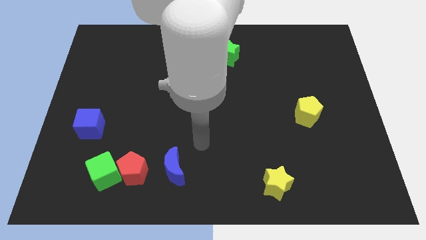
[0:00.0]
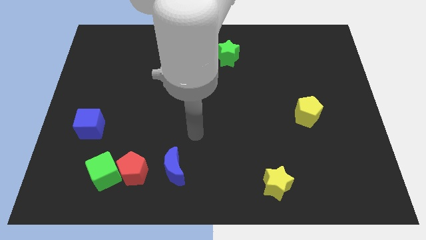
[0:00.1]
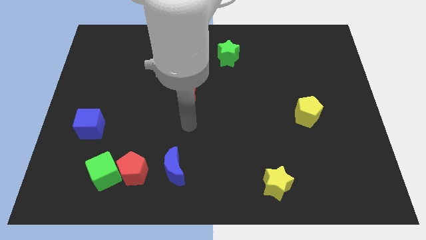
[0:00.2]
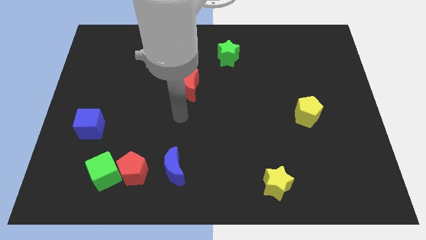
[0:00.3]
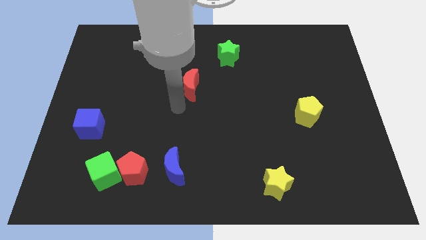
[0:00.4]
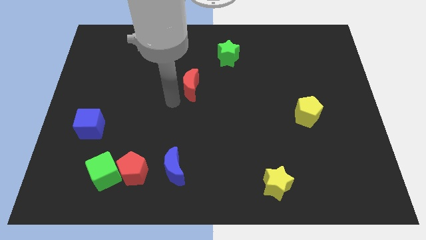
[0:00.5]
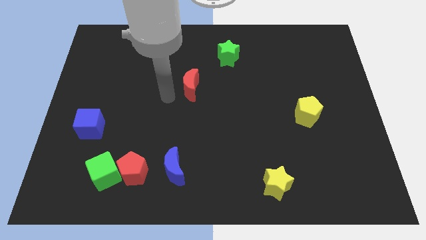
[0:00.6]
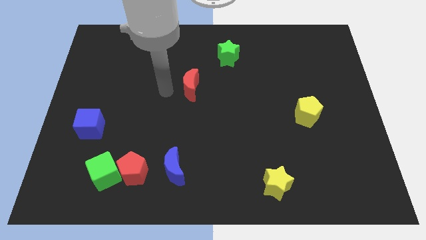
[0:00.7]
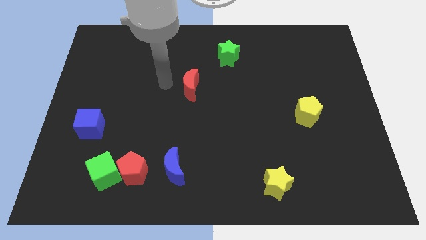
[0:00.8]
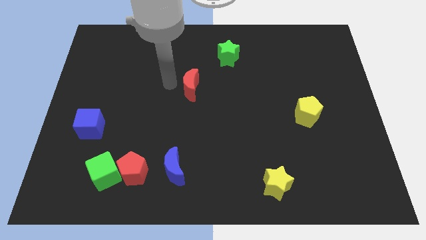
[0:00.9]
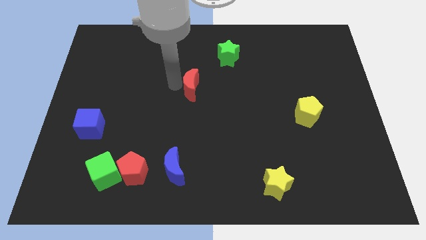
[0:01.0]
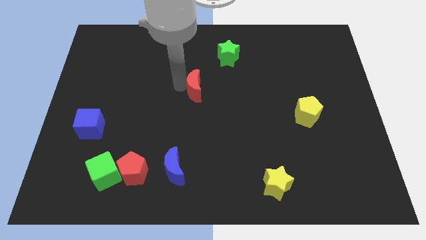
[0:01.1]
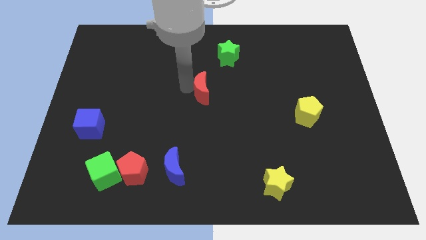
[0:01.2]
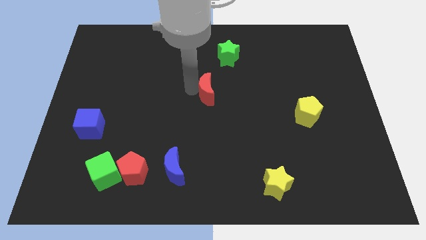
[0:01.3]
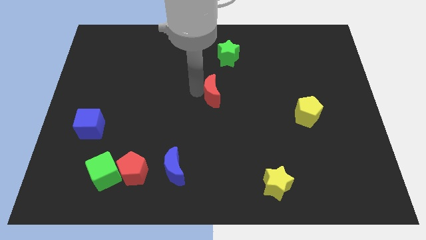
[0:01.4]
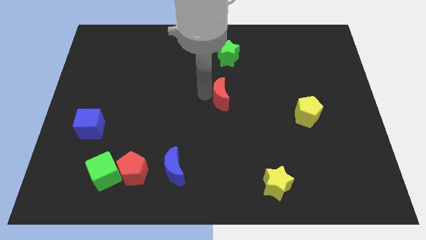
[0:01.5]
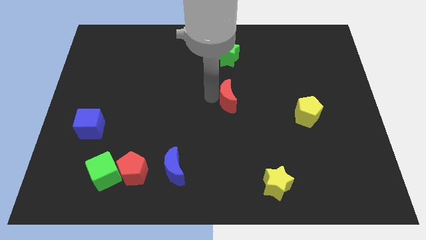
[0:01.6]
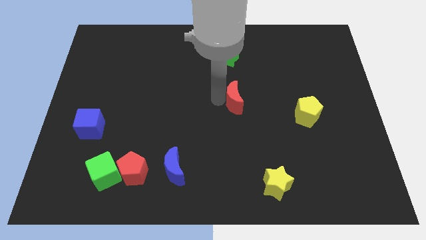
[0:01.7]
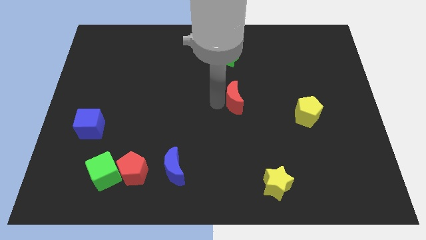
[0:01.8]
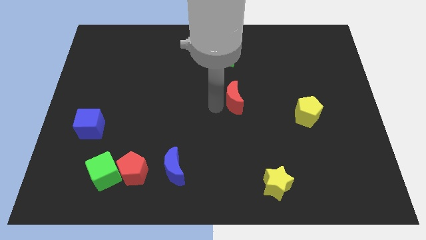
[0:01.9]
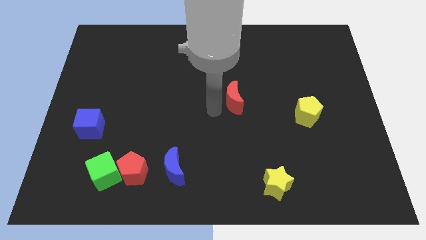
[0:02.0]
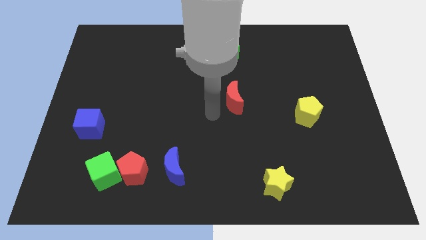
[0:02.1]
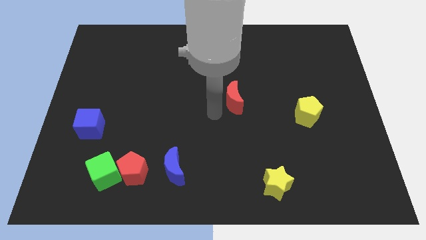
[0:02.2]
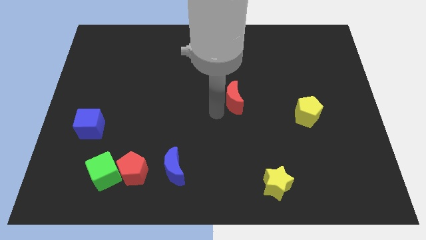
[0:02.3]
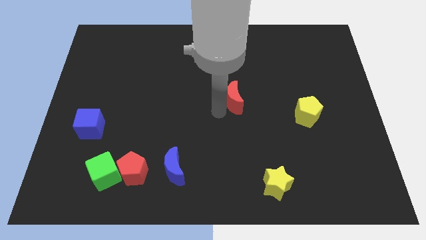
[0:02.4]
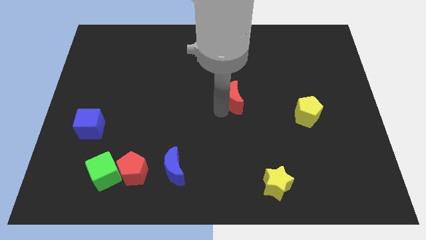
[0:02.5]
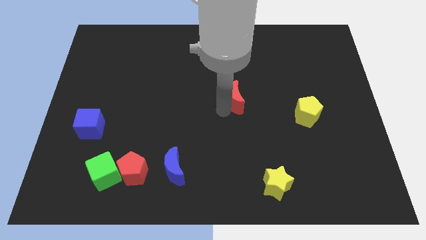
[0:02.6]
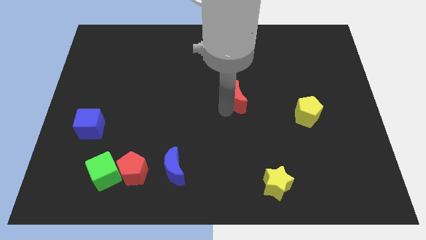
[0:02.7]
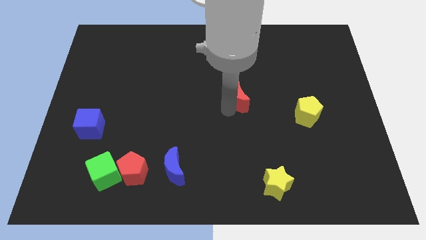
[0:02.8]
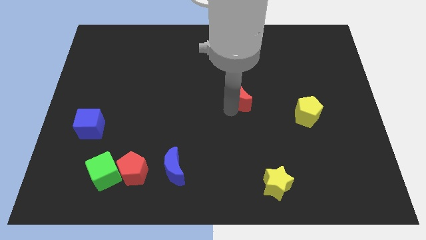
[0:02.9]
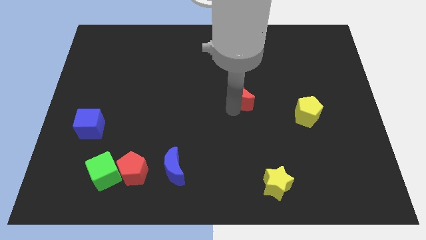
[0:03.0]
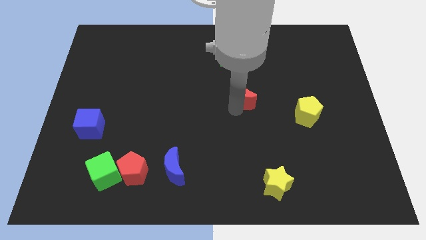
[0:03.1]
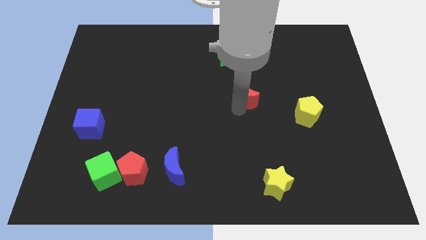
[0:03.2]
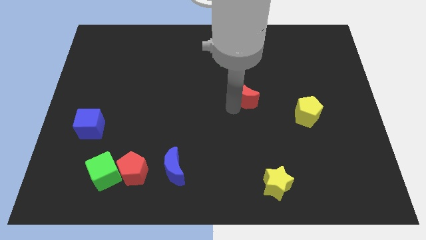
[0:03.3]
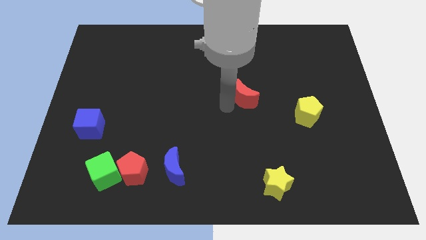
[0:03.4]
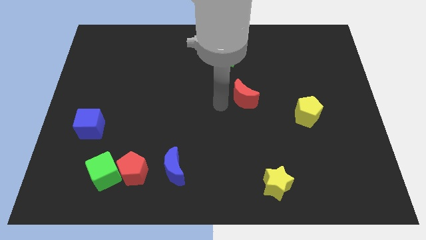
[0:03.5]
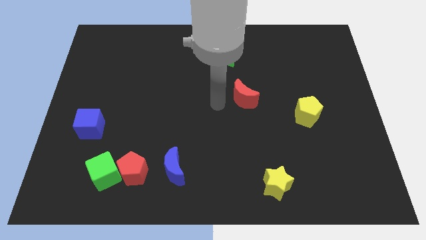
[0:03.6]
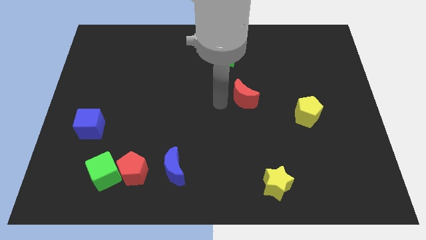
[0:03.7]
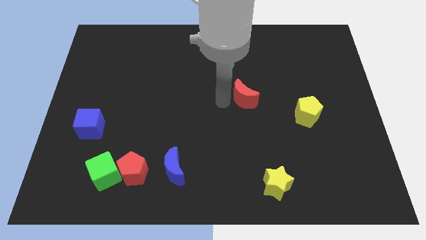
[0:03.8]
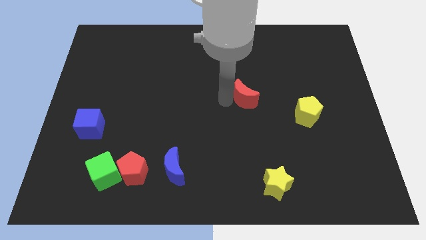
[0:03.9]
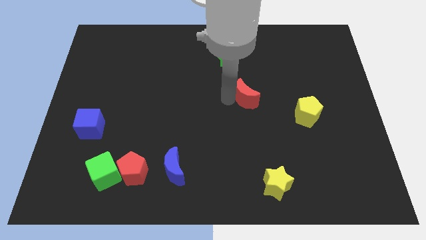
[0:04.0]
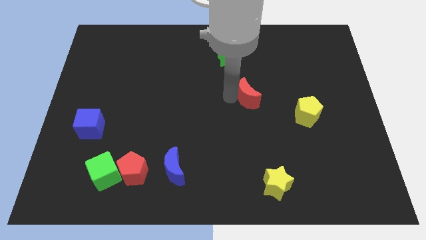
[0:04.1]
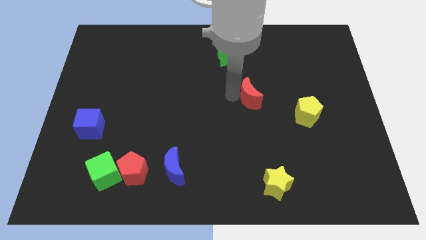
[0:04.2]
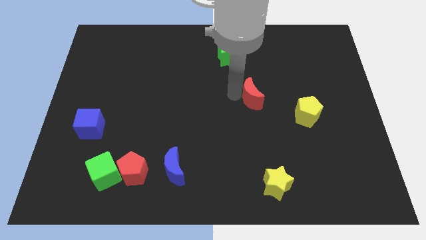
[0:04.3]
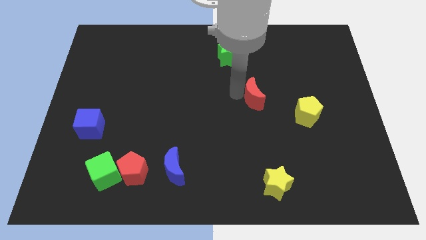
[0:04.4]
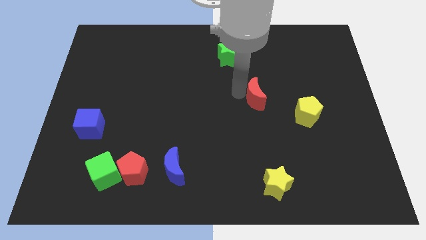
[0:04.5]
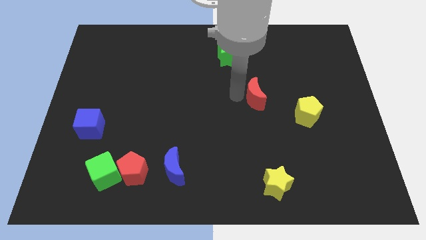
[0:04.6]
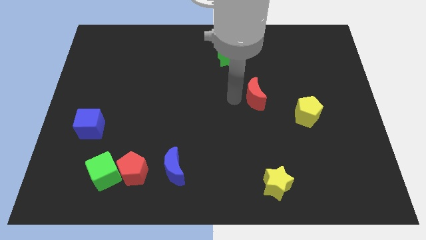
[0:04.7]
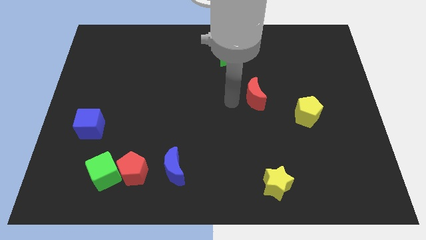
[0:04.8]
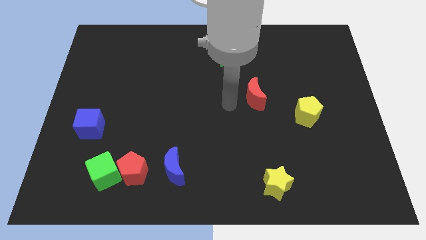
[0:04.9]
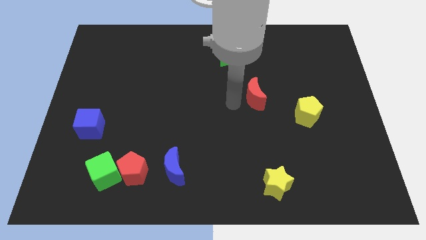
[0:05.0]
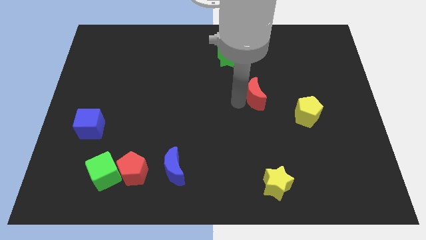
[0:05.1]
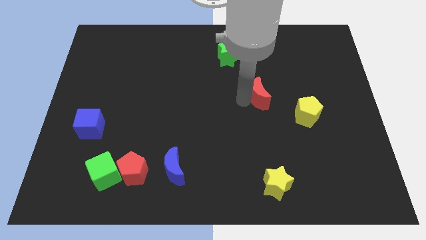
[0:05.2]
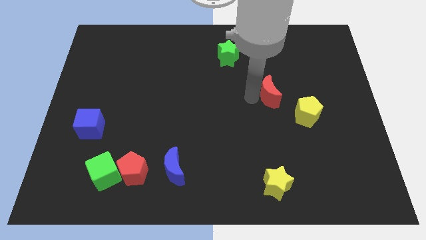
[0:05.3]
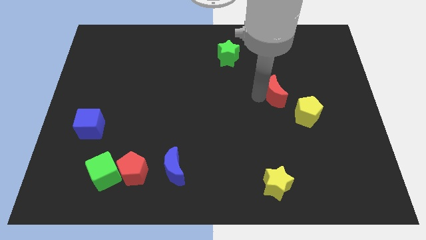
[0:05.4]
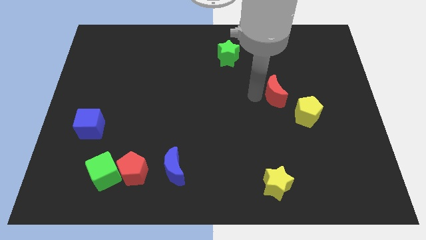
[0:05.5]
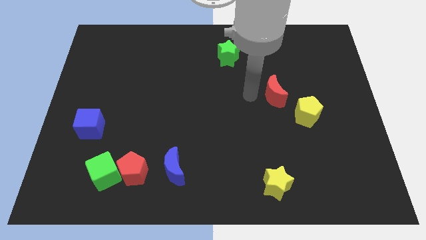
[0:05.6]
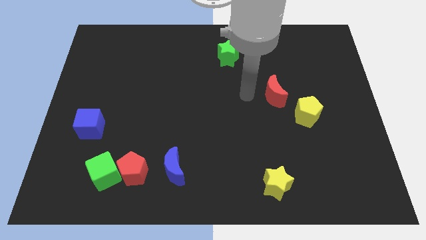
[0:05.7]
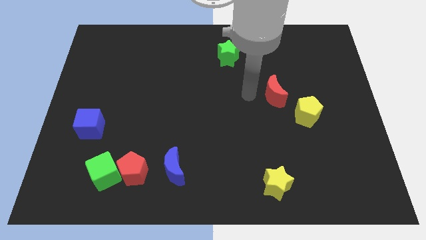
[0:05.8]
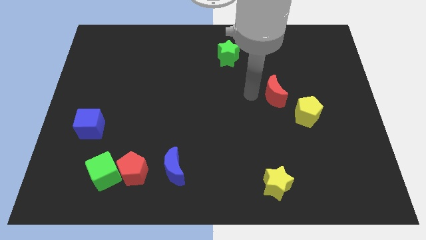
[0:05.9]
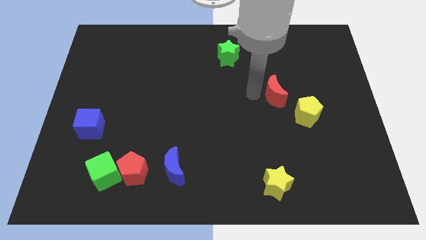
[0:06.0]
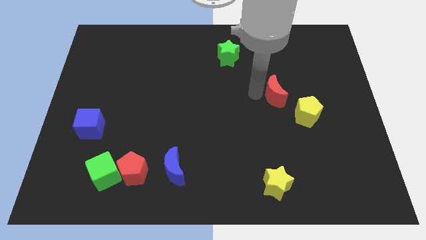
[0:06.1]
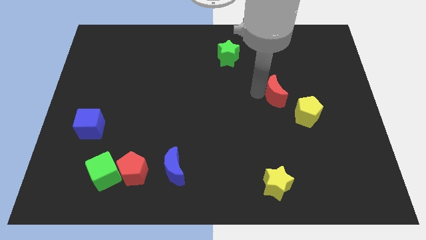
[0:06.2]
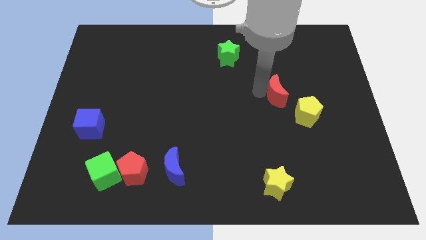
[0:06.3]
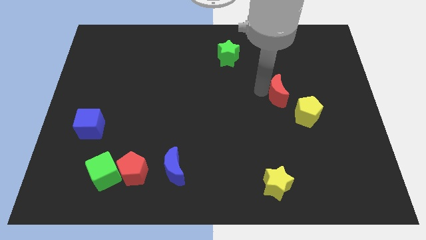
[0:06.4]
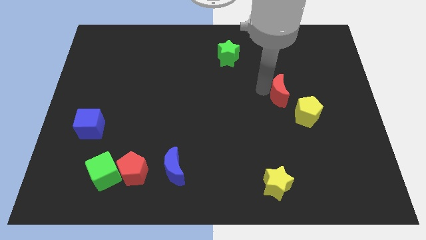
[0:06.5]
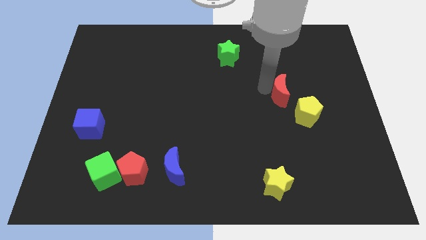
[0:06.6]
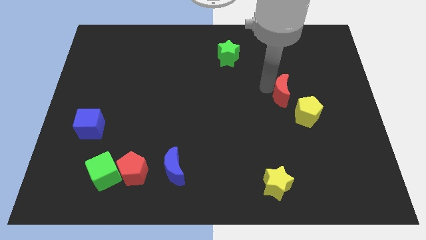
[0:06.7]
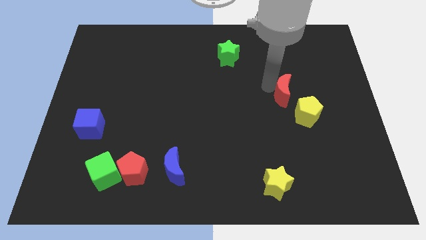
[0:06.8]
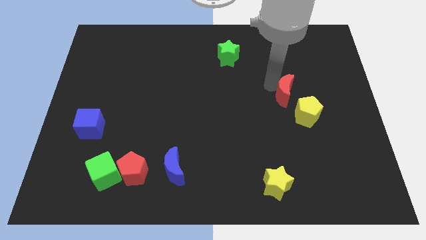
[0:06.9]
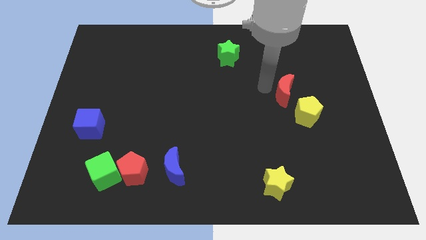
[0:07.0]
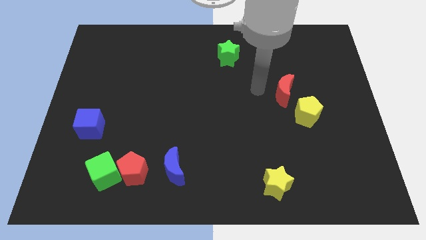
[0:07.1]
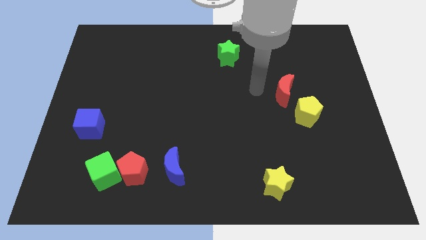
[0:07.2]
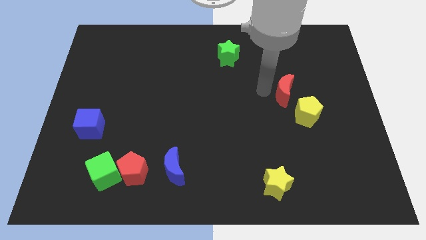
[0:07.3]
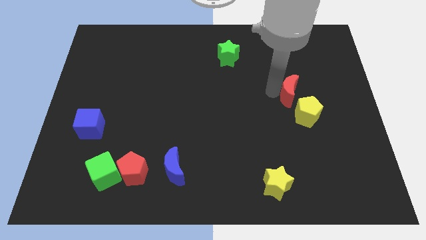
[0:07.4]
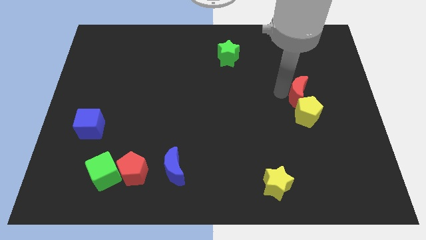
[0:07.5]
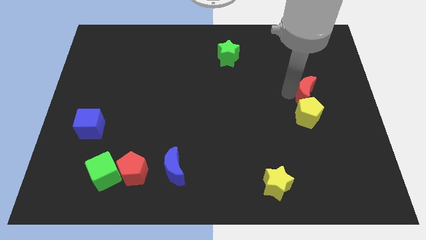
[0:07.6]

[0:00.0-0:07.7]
move the red moon to the top right side of the yellow pentagon
